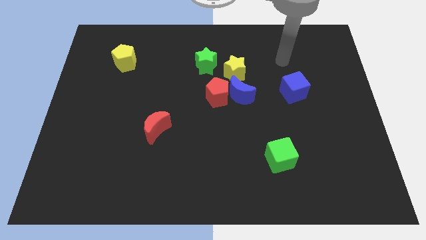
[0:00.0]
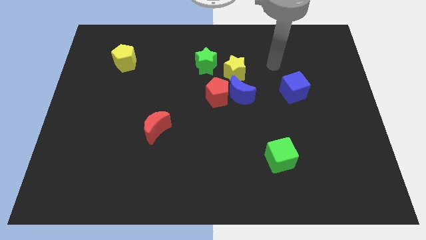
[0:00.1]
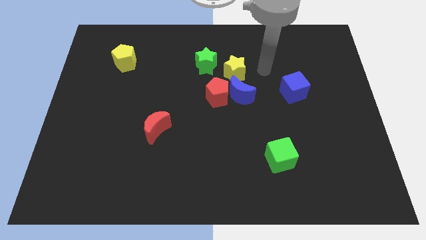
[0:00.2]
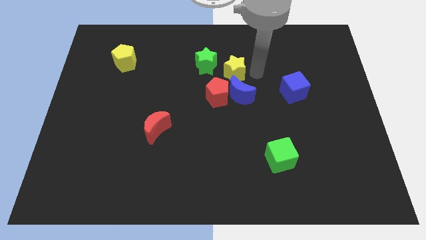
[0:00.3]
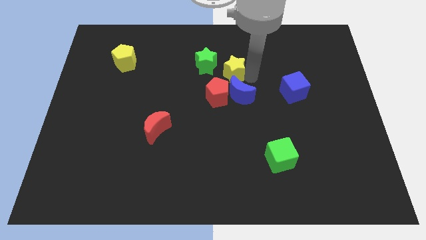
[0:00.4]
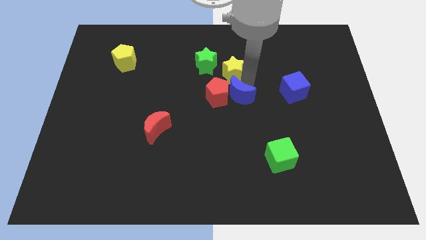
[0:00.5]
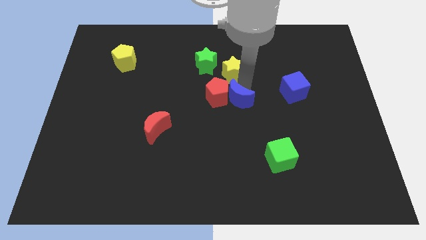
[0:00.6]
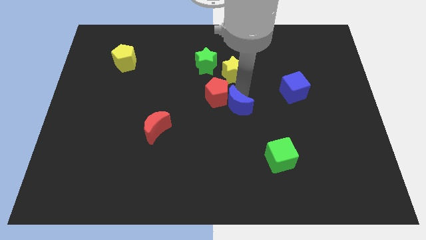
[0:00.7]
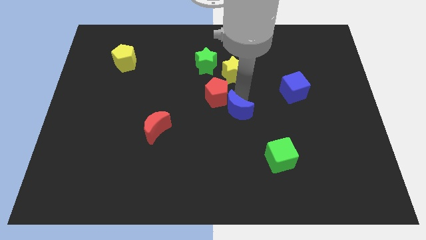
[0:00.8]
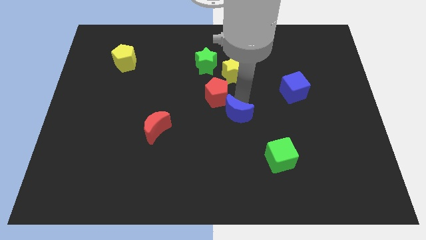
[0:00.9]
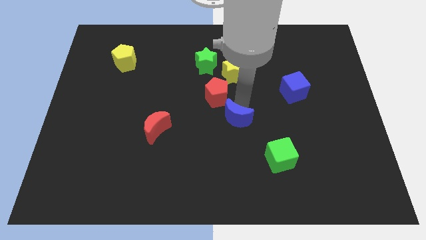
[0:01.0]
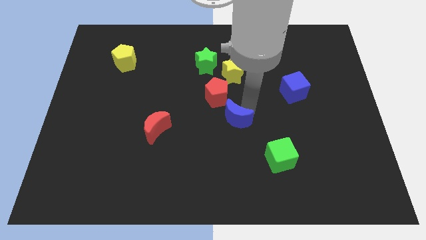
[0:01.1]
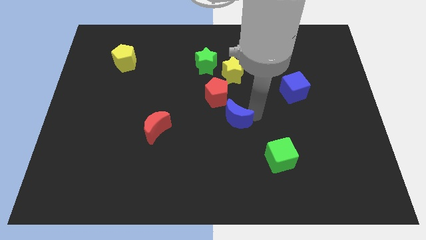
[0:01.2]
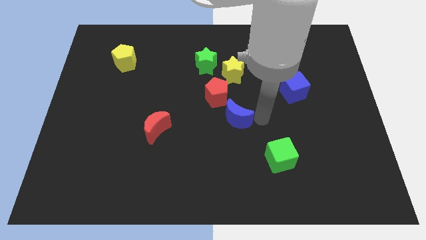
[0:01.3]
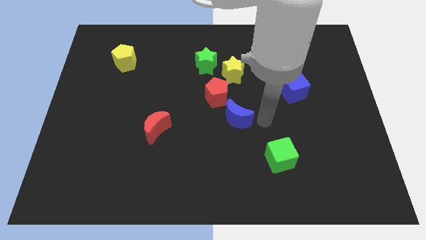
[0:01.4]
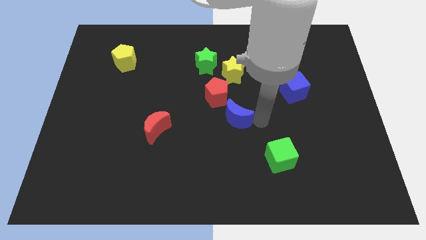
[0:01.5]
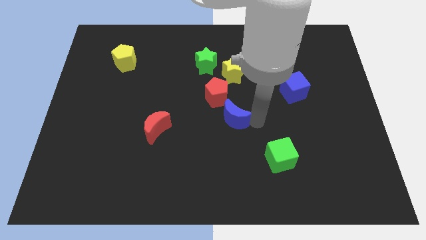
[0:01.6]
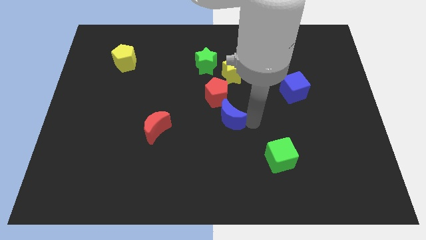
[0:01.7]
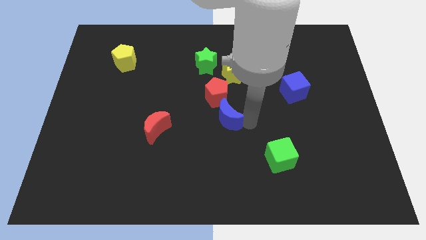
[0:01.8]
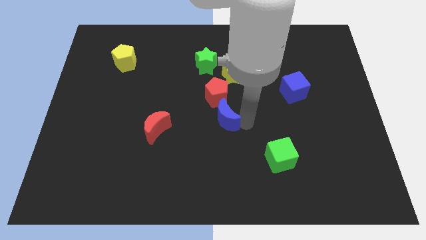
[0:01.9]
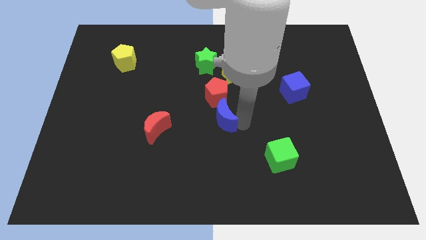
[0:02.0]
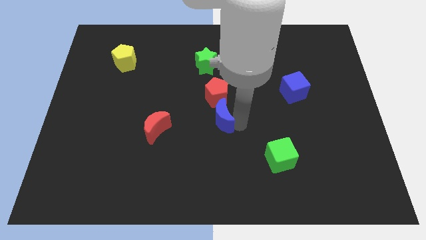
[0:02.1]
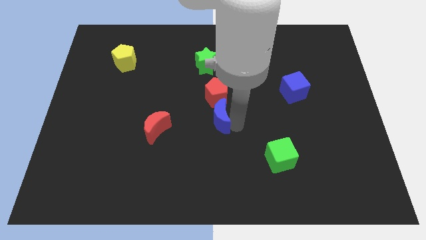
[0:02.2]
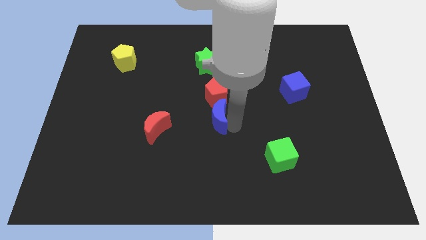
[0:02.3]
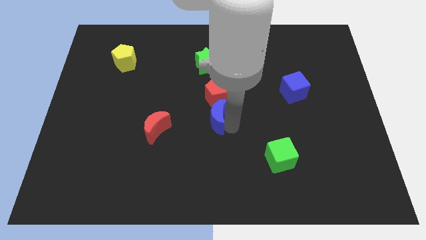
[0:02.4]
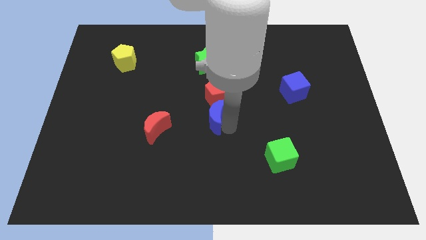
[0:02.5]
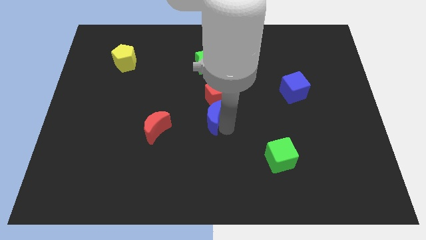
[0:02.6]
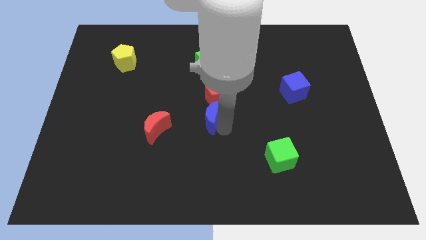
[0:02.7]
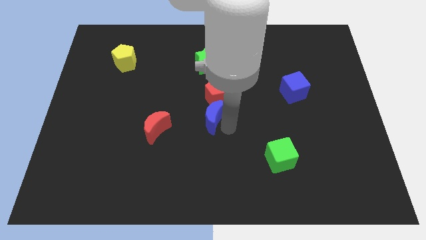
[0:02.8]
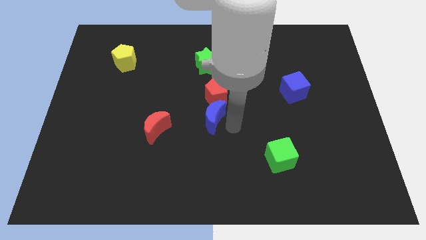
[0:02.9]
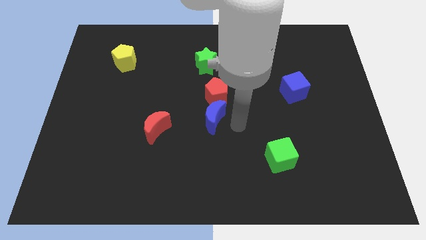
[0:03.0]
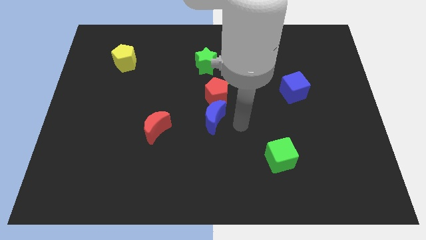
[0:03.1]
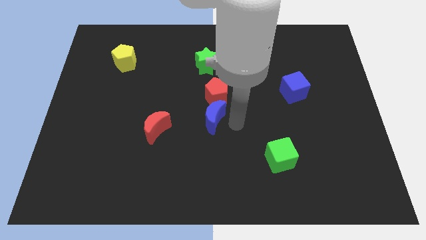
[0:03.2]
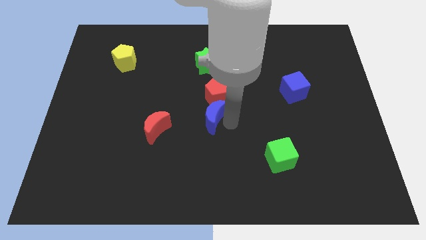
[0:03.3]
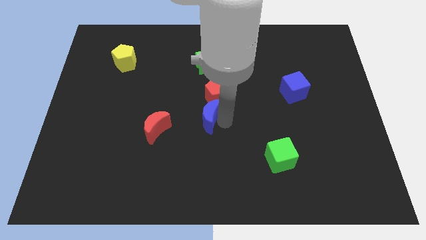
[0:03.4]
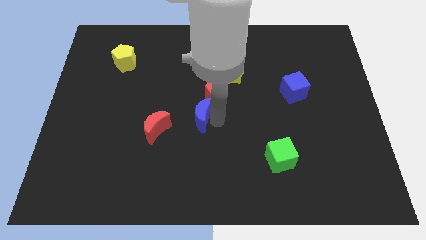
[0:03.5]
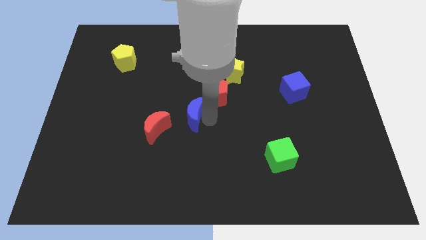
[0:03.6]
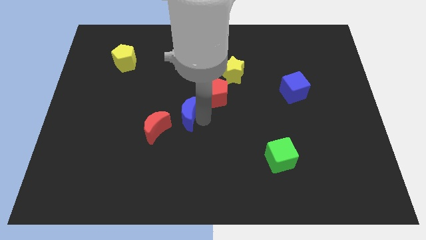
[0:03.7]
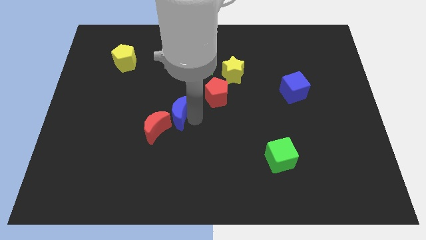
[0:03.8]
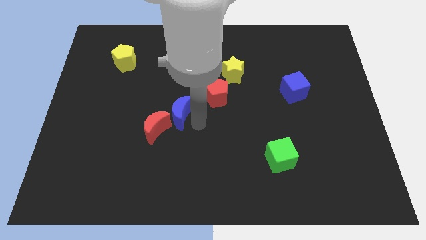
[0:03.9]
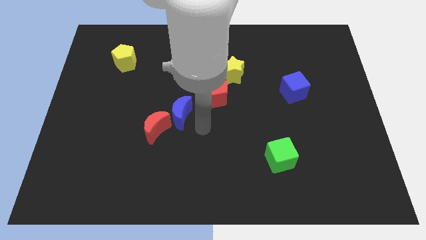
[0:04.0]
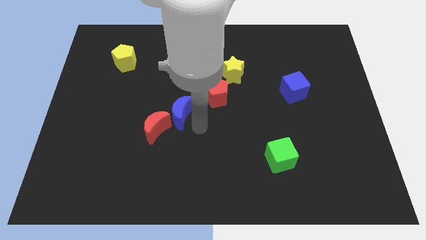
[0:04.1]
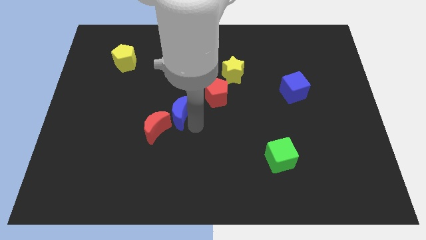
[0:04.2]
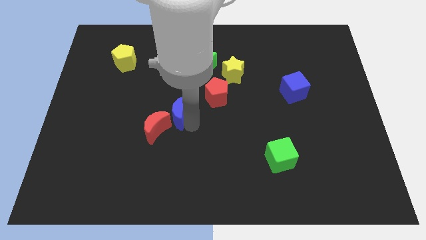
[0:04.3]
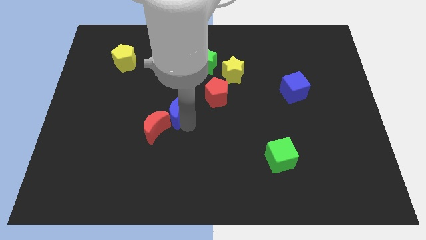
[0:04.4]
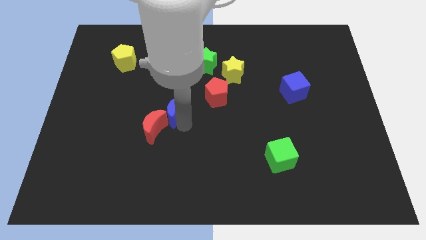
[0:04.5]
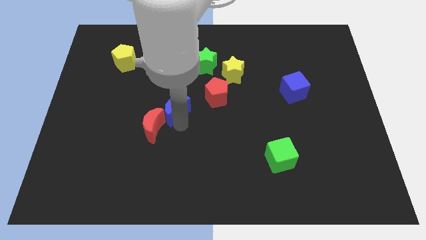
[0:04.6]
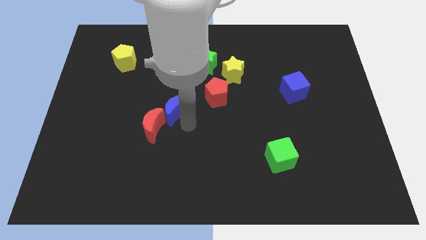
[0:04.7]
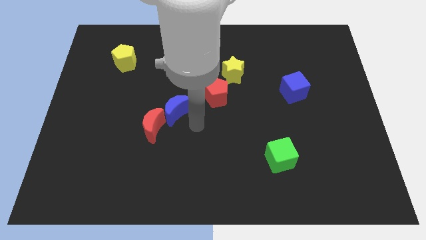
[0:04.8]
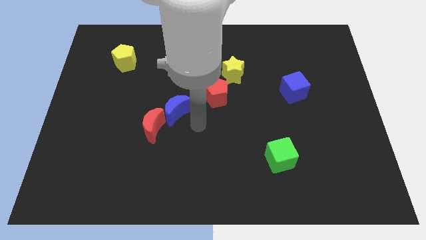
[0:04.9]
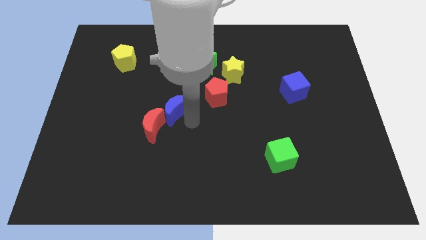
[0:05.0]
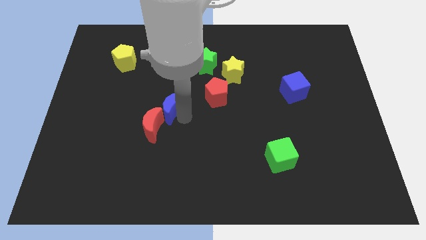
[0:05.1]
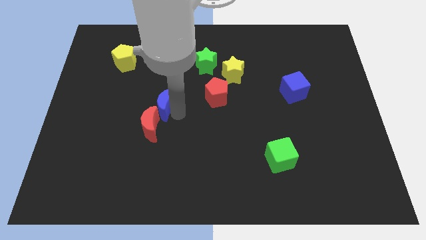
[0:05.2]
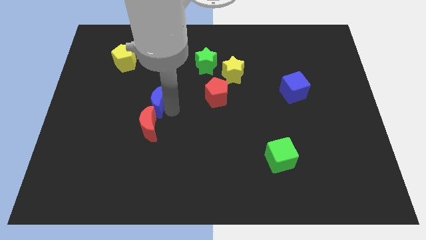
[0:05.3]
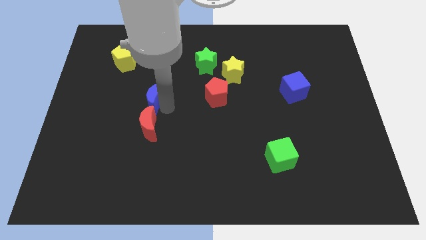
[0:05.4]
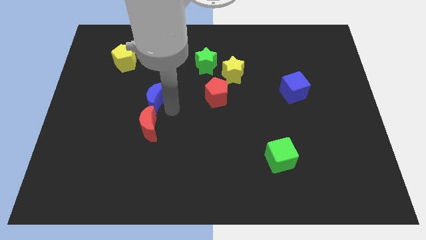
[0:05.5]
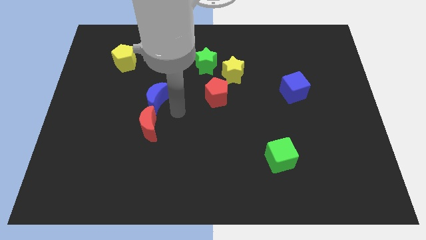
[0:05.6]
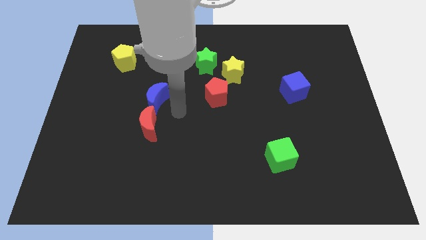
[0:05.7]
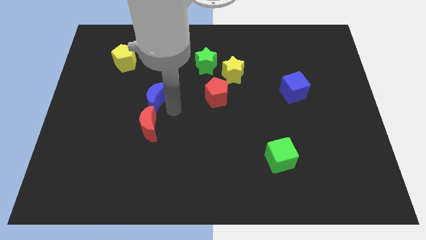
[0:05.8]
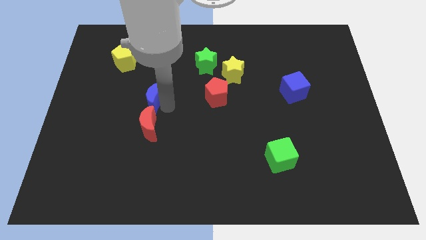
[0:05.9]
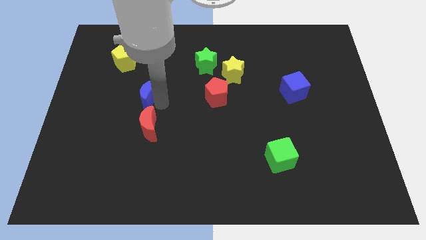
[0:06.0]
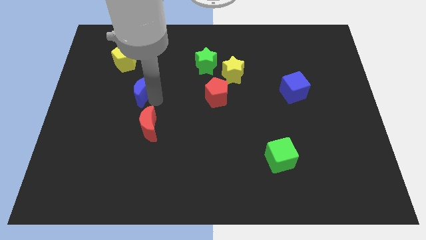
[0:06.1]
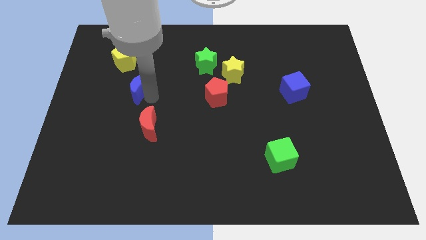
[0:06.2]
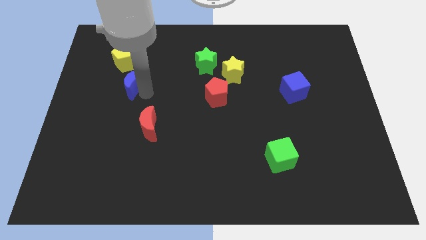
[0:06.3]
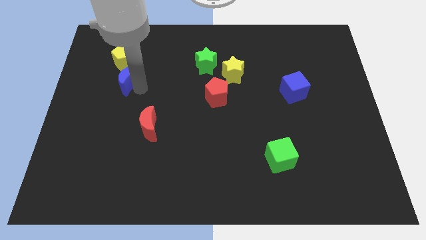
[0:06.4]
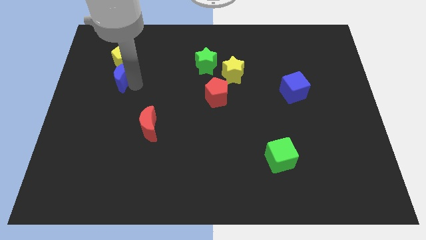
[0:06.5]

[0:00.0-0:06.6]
push the blue moon to the bottom left of the yellow pentagon

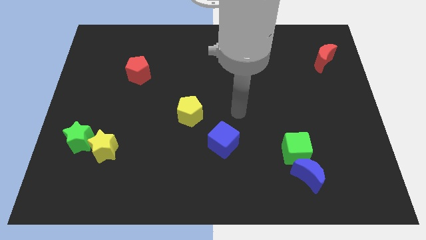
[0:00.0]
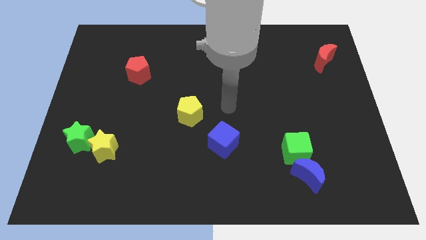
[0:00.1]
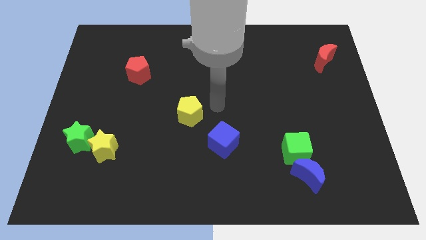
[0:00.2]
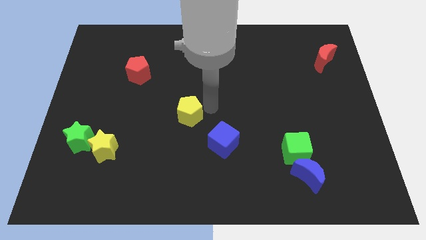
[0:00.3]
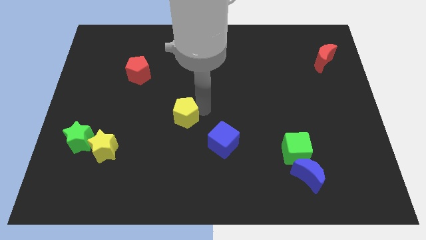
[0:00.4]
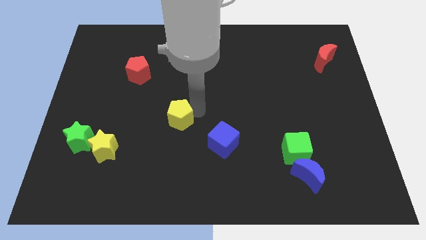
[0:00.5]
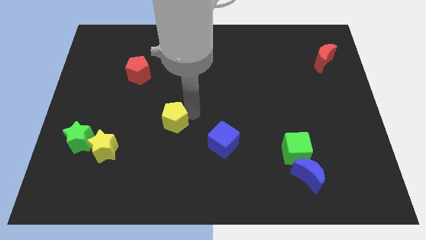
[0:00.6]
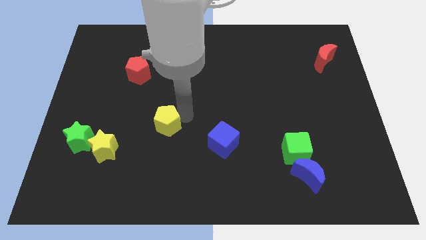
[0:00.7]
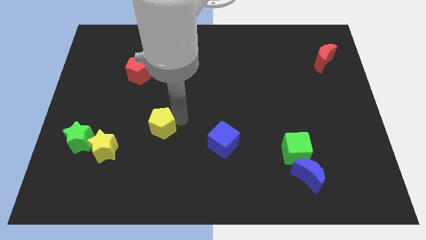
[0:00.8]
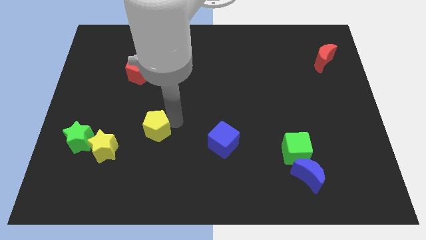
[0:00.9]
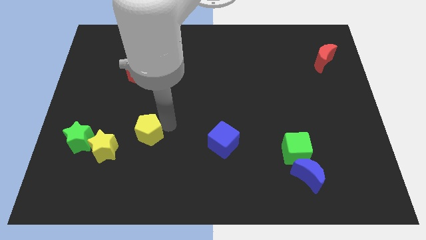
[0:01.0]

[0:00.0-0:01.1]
put the yellow pentagon to the top right side of the yellow star
